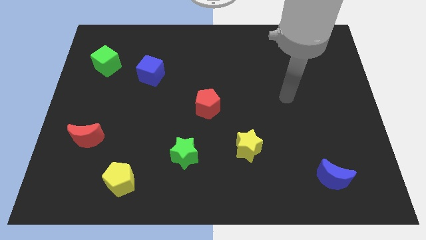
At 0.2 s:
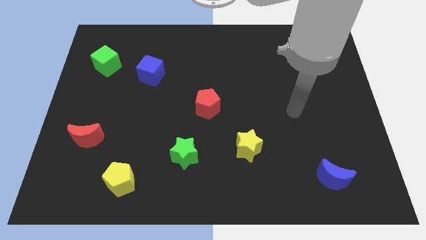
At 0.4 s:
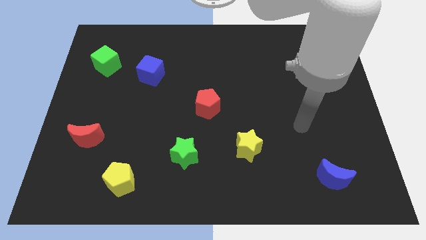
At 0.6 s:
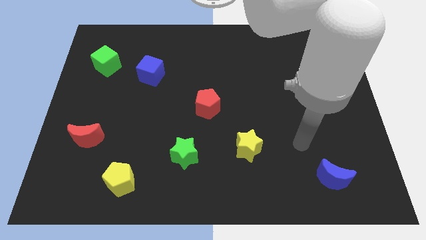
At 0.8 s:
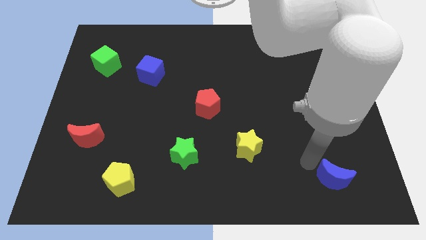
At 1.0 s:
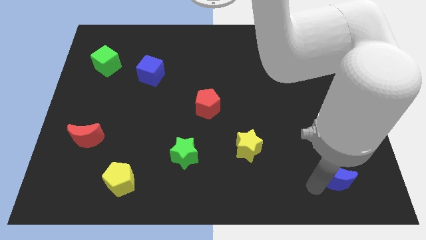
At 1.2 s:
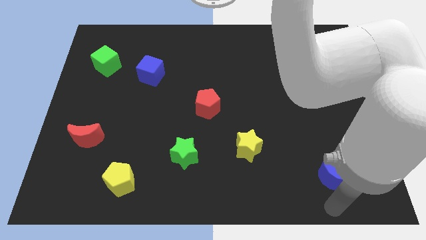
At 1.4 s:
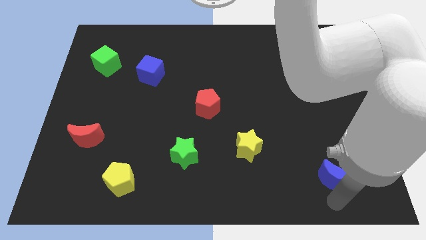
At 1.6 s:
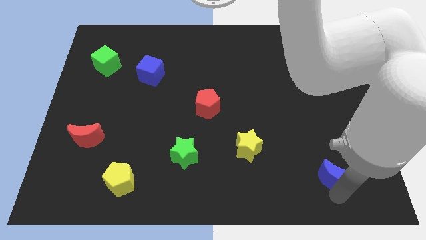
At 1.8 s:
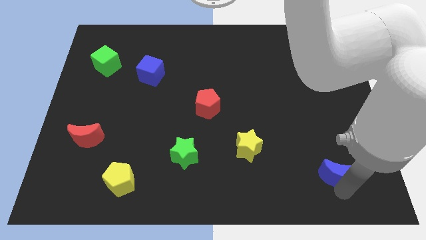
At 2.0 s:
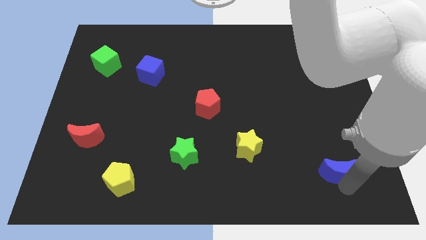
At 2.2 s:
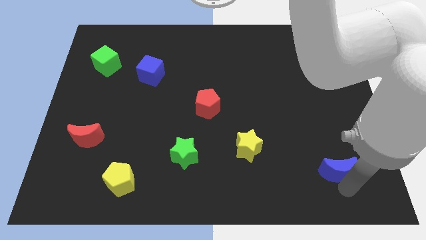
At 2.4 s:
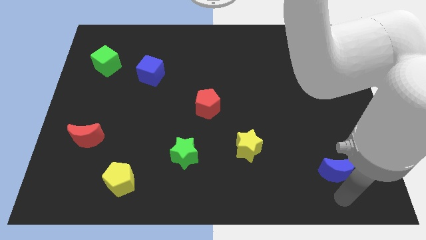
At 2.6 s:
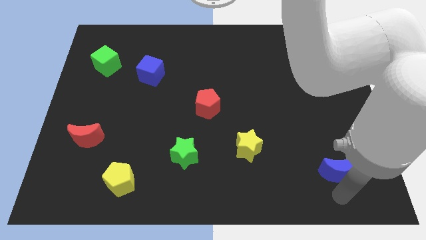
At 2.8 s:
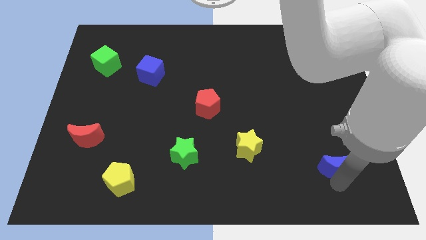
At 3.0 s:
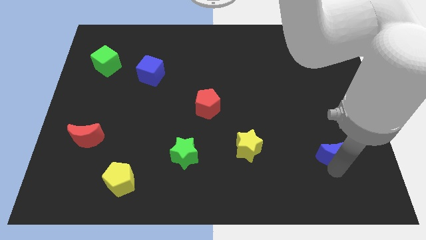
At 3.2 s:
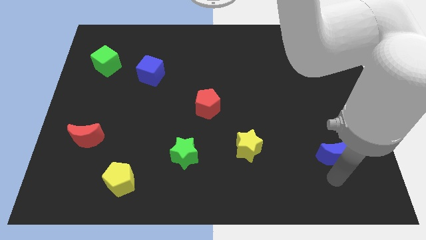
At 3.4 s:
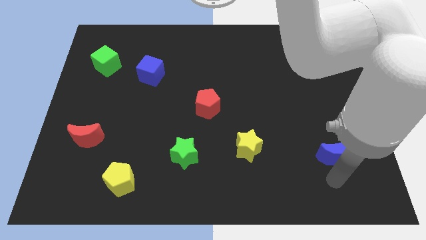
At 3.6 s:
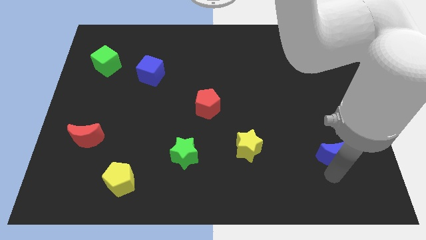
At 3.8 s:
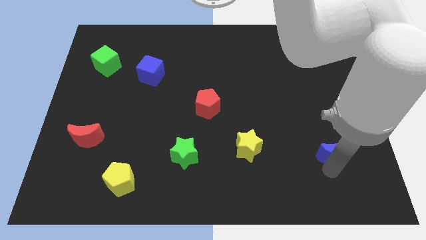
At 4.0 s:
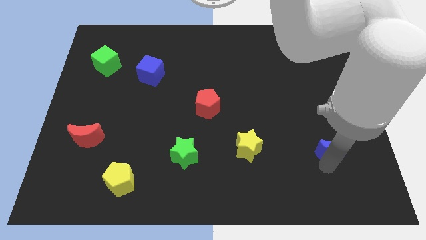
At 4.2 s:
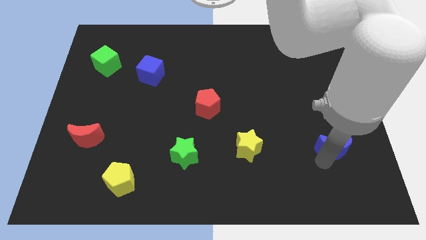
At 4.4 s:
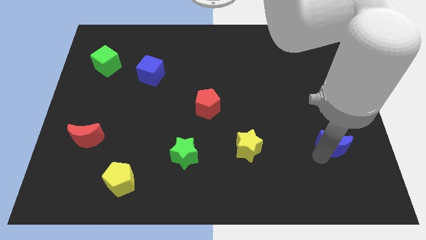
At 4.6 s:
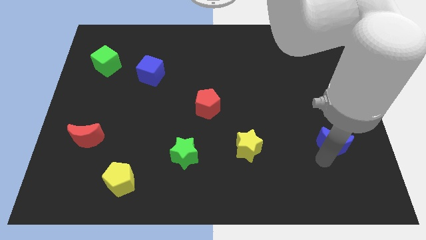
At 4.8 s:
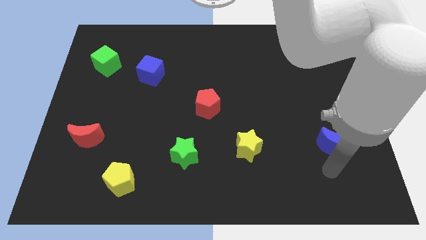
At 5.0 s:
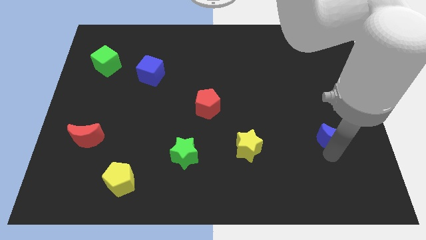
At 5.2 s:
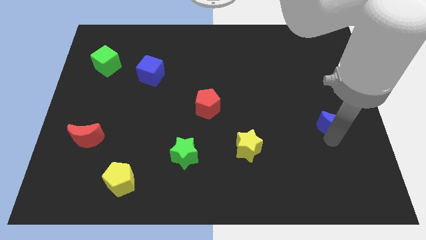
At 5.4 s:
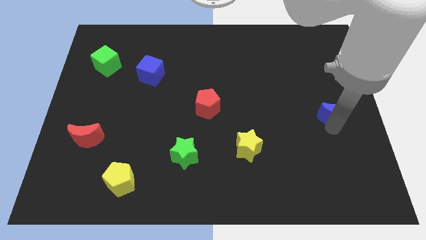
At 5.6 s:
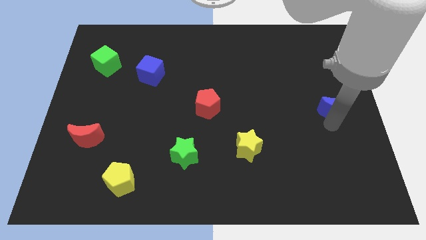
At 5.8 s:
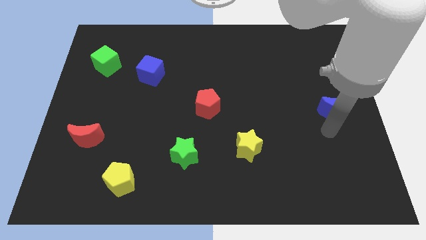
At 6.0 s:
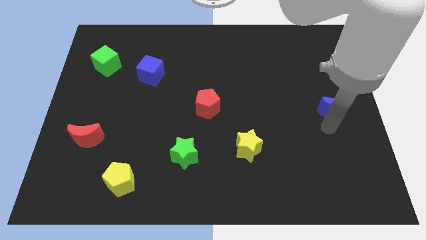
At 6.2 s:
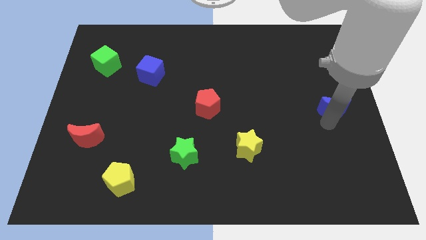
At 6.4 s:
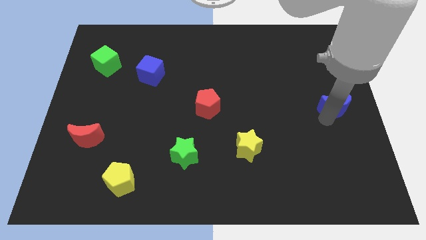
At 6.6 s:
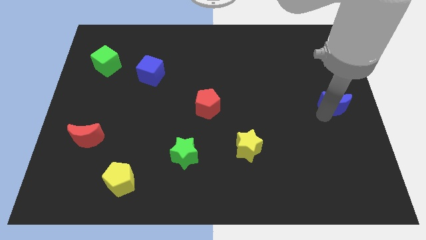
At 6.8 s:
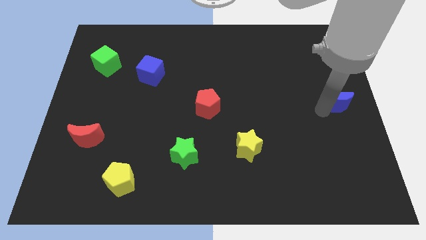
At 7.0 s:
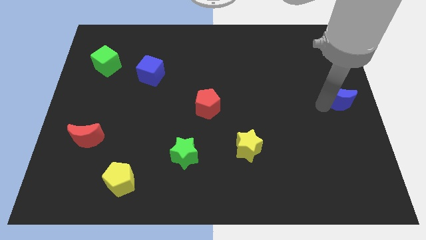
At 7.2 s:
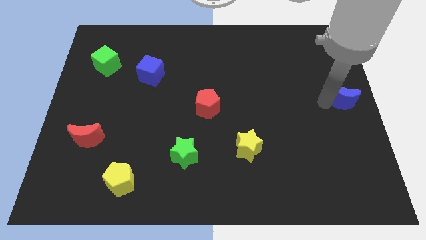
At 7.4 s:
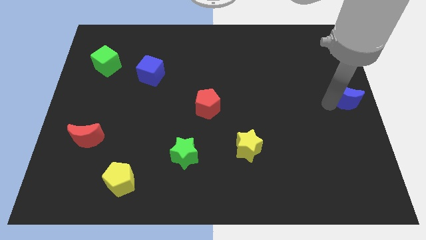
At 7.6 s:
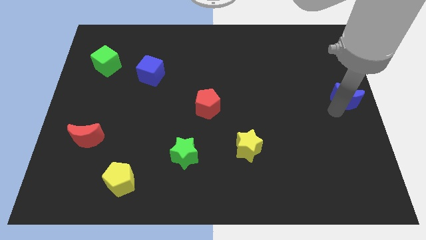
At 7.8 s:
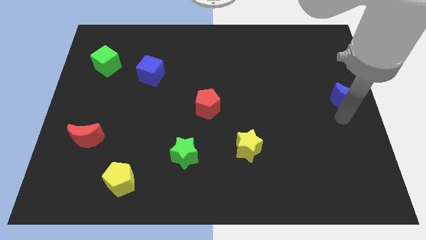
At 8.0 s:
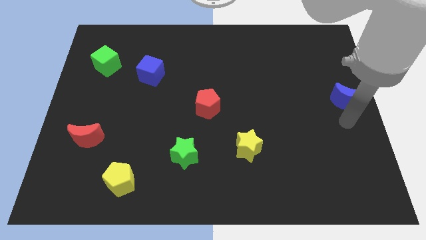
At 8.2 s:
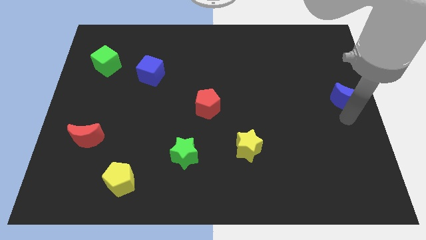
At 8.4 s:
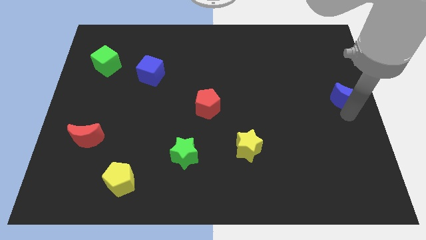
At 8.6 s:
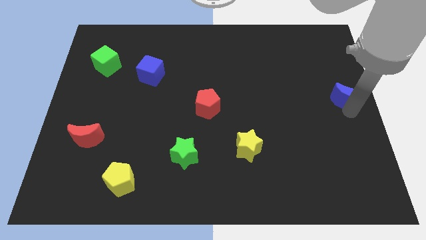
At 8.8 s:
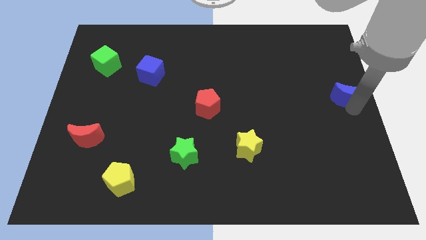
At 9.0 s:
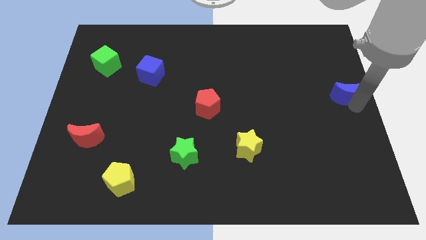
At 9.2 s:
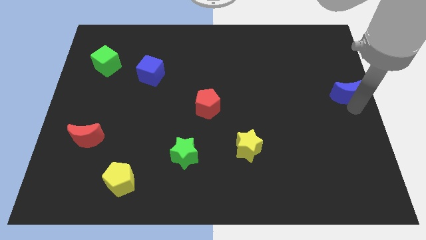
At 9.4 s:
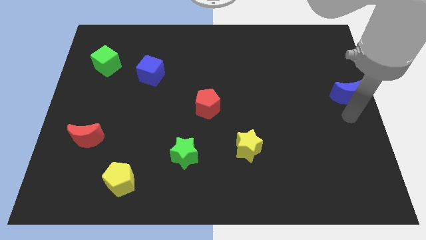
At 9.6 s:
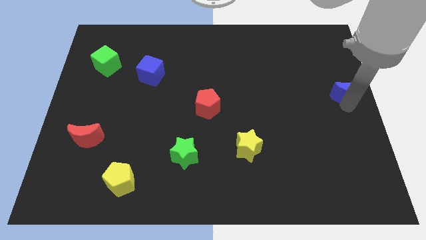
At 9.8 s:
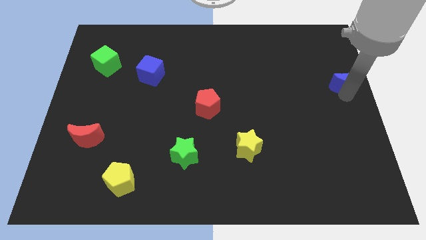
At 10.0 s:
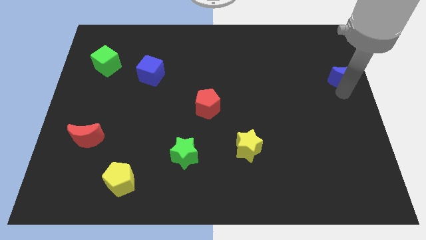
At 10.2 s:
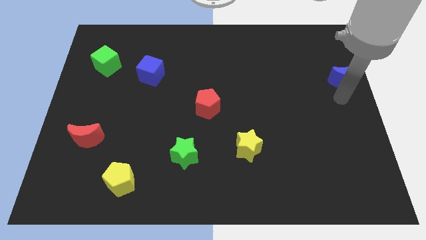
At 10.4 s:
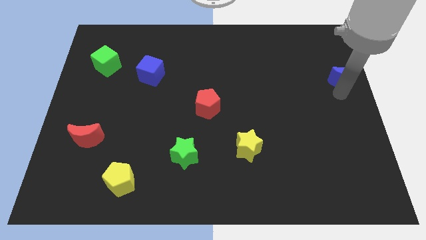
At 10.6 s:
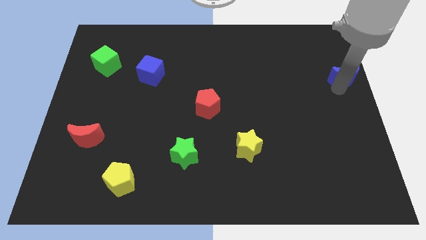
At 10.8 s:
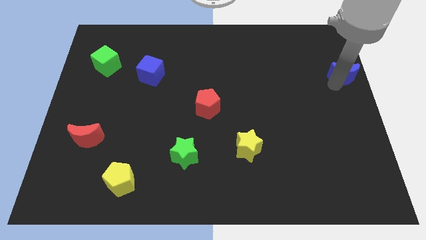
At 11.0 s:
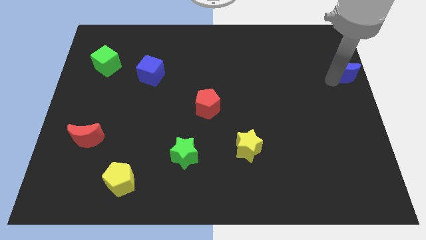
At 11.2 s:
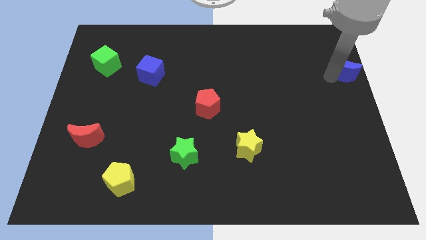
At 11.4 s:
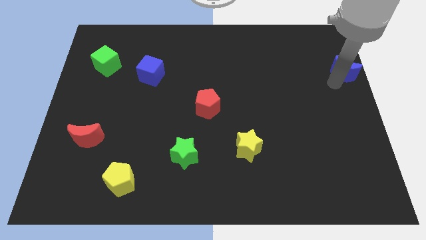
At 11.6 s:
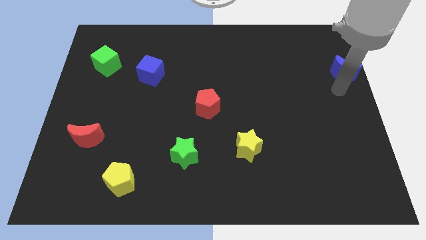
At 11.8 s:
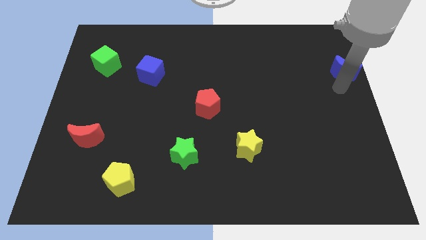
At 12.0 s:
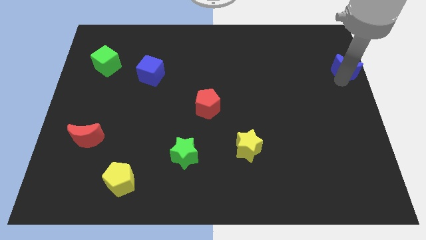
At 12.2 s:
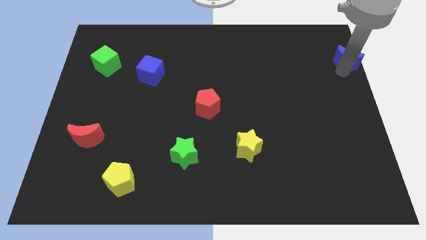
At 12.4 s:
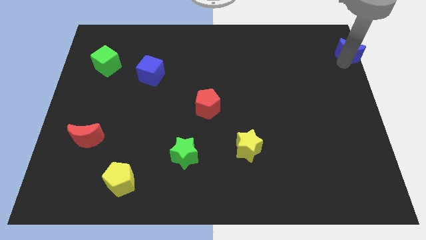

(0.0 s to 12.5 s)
push the blue moon to the top right corner
